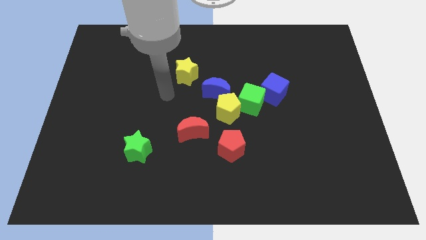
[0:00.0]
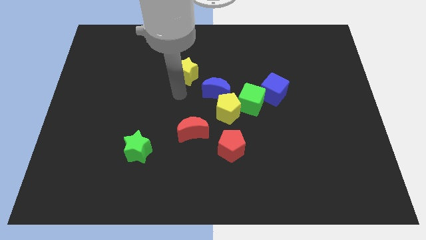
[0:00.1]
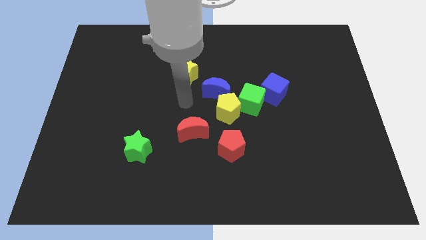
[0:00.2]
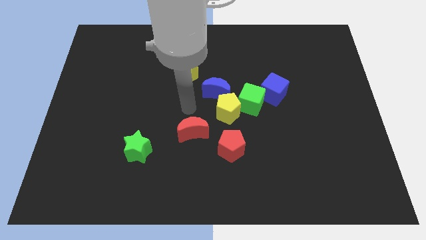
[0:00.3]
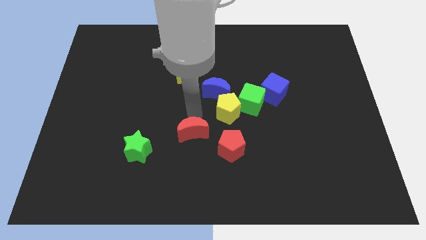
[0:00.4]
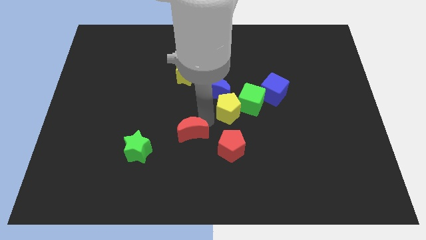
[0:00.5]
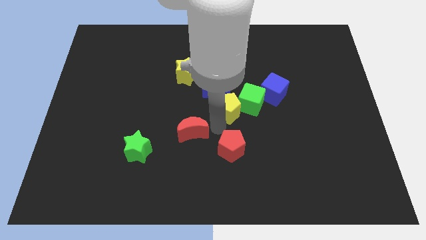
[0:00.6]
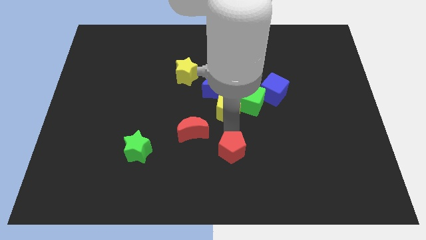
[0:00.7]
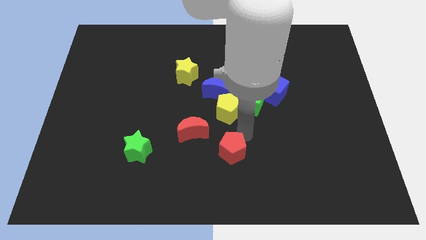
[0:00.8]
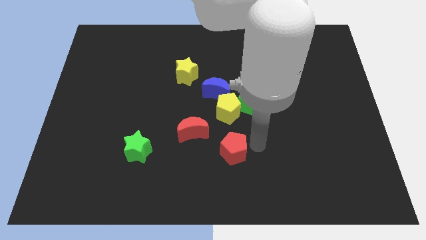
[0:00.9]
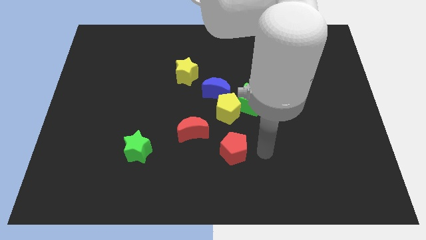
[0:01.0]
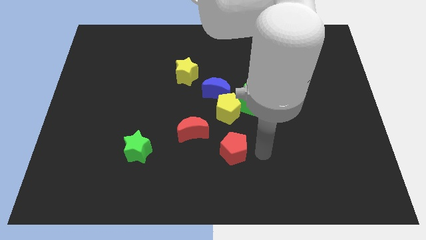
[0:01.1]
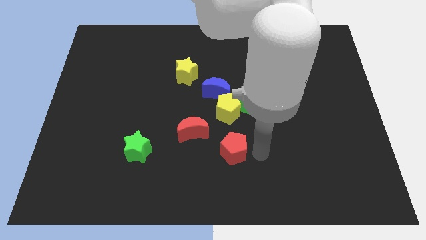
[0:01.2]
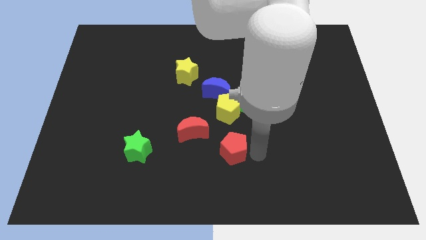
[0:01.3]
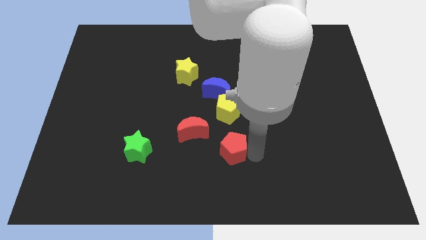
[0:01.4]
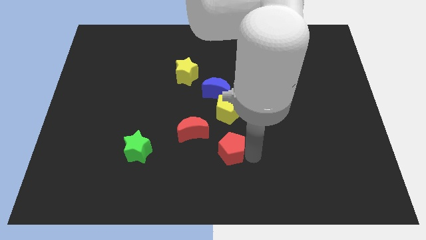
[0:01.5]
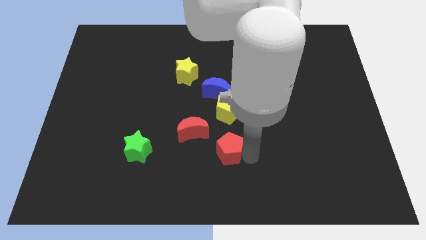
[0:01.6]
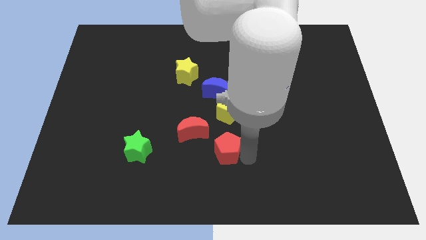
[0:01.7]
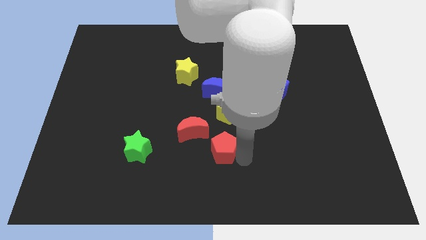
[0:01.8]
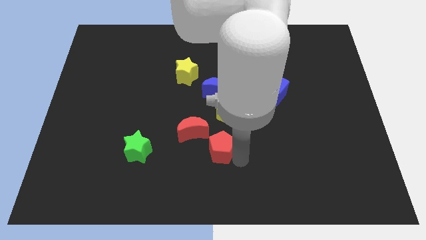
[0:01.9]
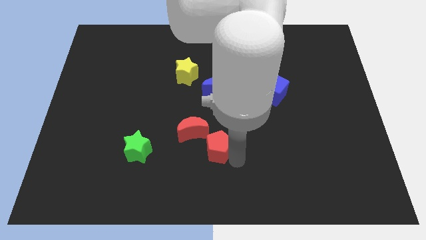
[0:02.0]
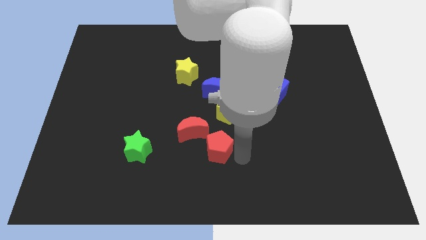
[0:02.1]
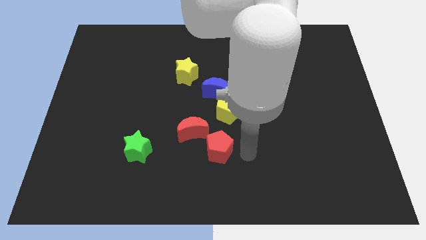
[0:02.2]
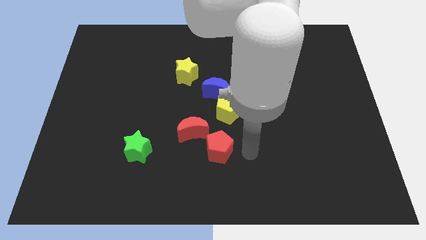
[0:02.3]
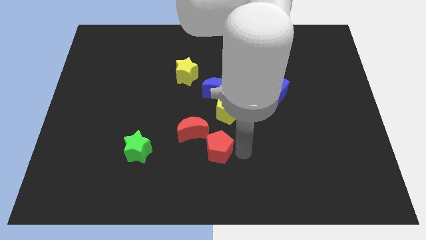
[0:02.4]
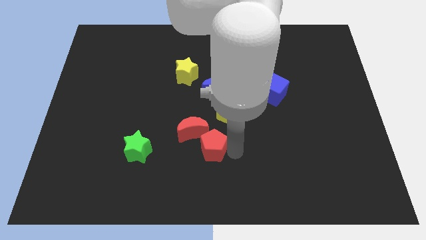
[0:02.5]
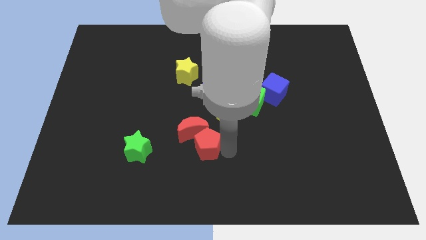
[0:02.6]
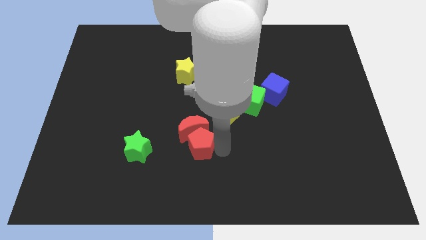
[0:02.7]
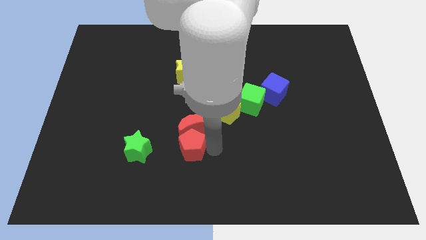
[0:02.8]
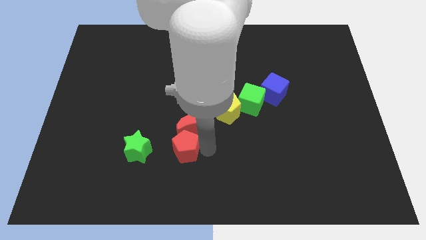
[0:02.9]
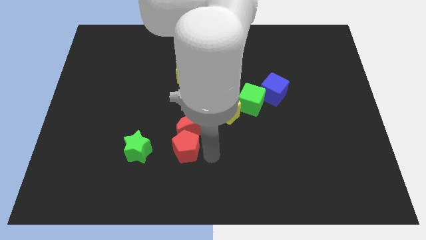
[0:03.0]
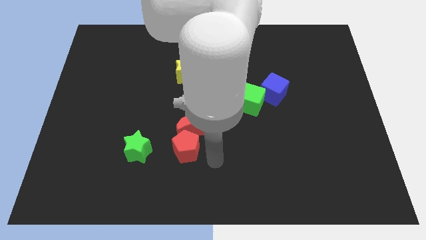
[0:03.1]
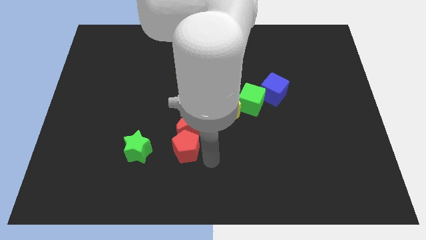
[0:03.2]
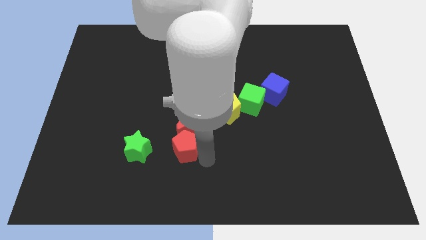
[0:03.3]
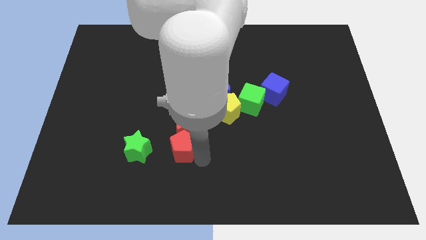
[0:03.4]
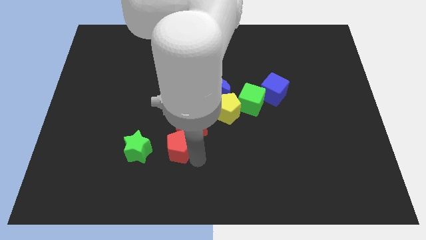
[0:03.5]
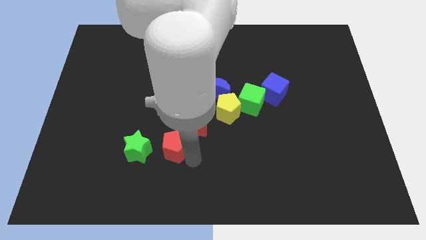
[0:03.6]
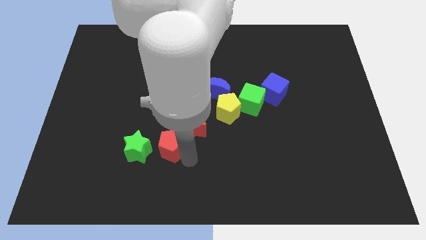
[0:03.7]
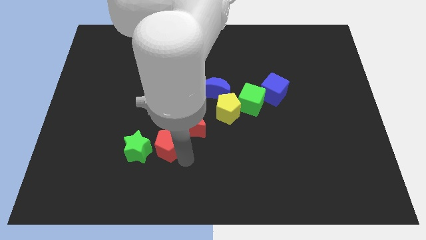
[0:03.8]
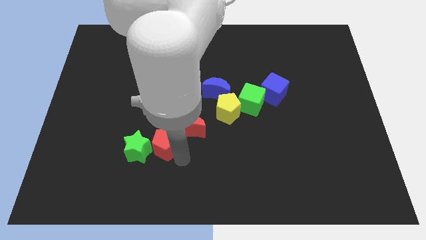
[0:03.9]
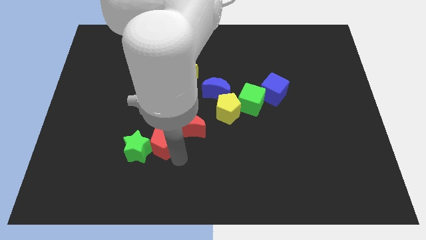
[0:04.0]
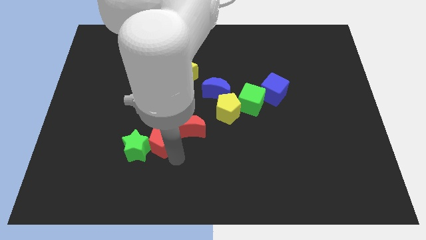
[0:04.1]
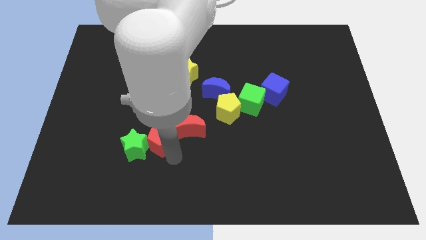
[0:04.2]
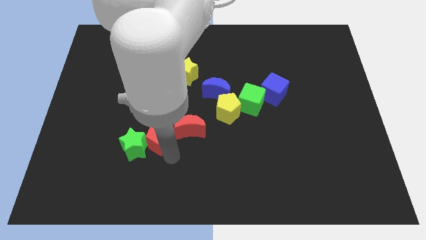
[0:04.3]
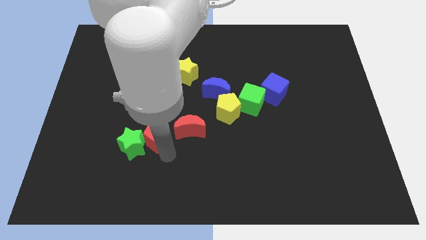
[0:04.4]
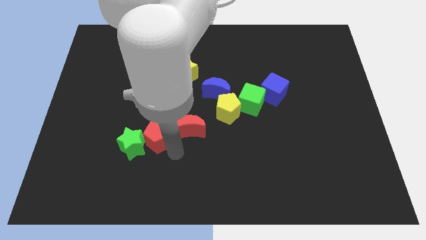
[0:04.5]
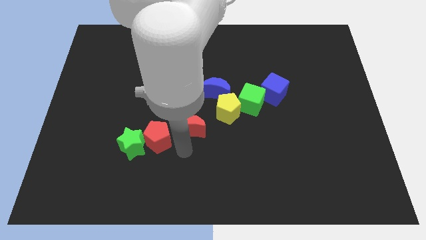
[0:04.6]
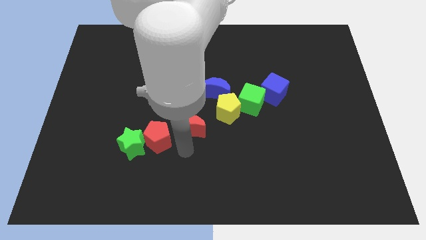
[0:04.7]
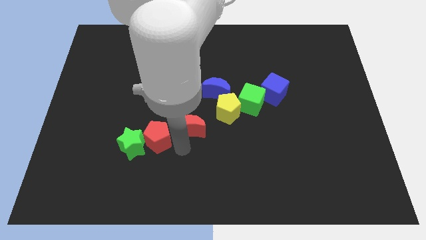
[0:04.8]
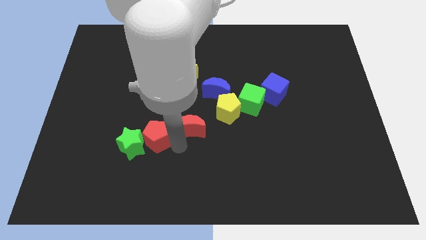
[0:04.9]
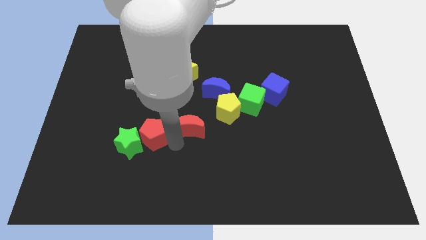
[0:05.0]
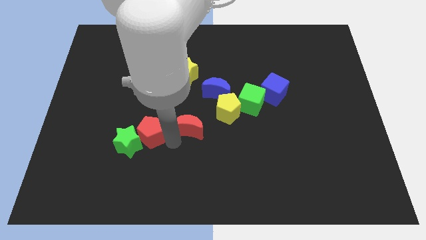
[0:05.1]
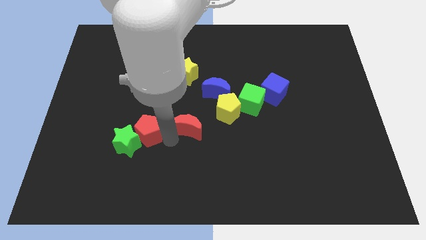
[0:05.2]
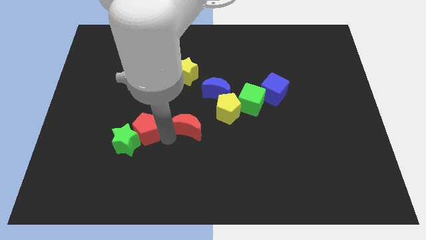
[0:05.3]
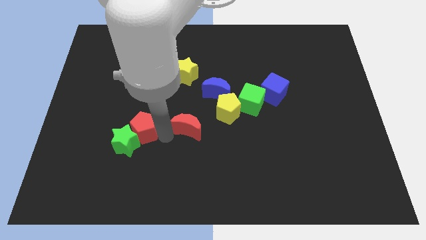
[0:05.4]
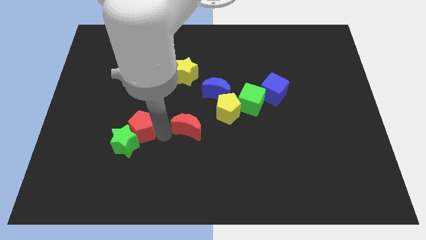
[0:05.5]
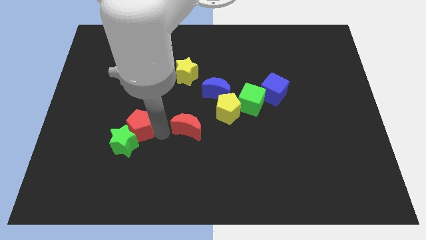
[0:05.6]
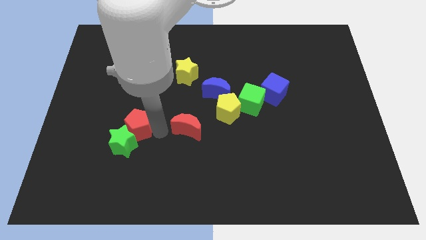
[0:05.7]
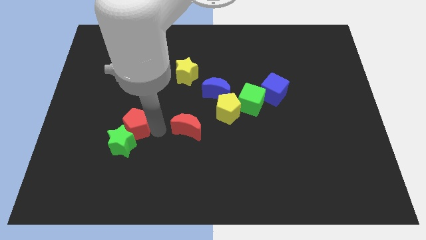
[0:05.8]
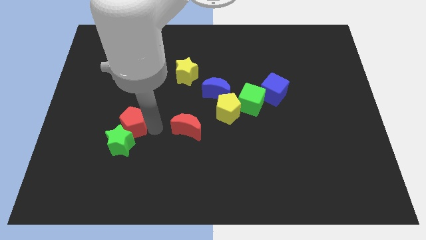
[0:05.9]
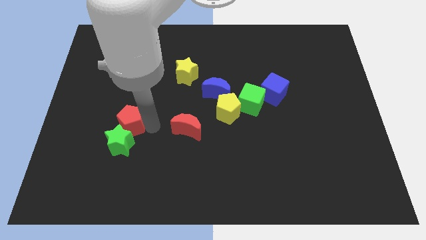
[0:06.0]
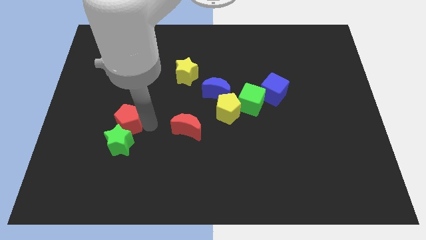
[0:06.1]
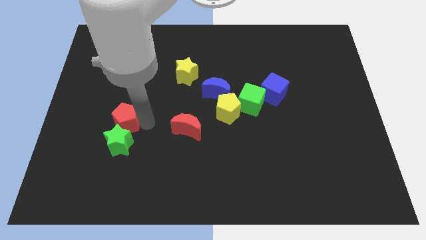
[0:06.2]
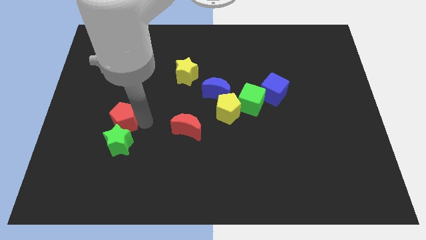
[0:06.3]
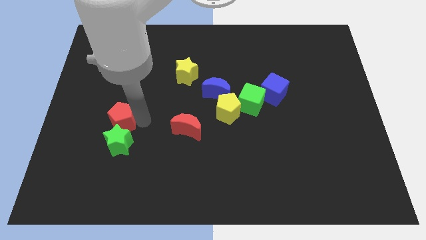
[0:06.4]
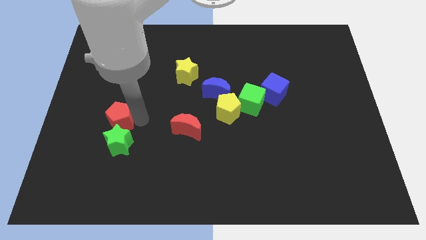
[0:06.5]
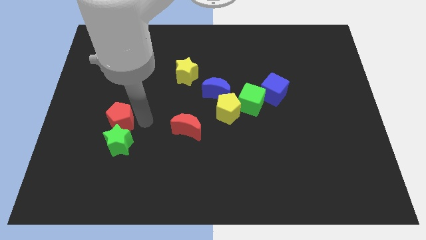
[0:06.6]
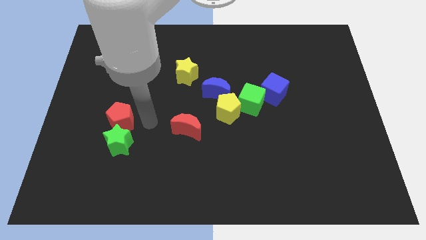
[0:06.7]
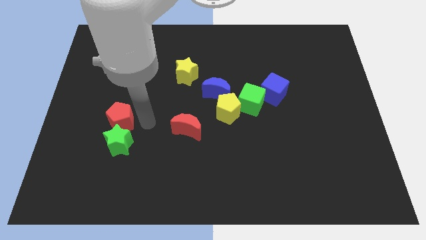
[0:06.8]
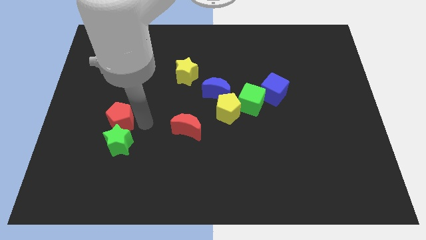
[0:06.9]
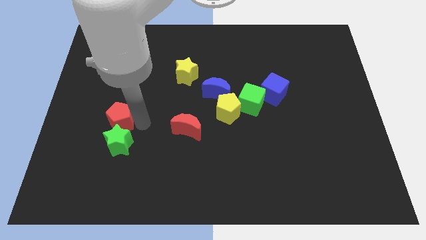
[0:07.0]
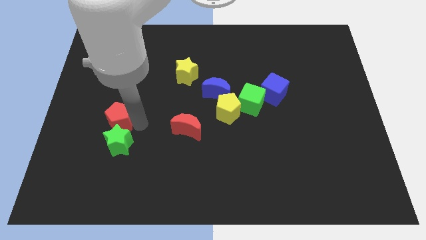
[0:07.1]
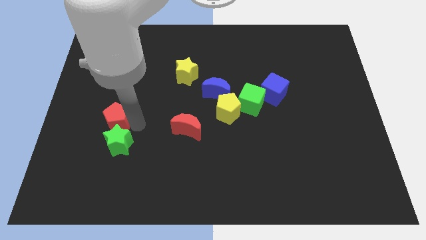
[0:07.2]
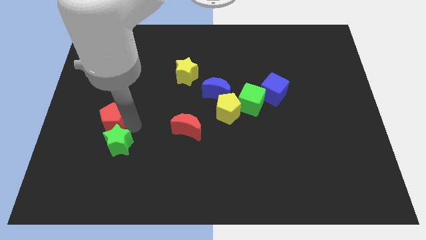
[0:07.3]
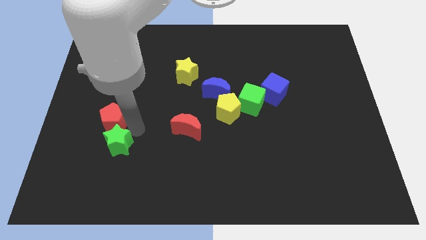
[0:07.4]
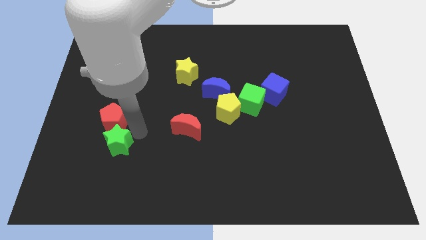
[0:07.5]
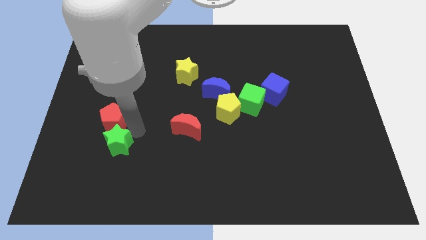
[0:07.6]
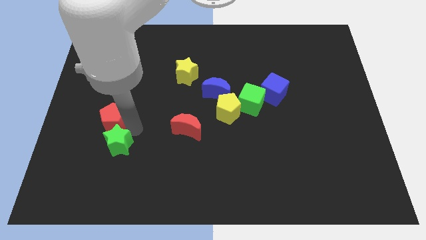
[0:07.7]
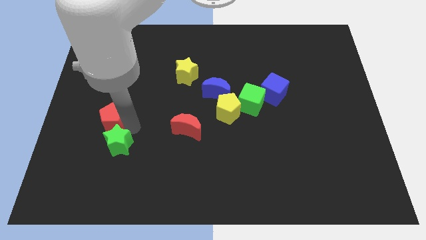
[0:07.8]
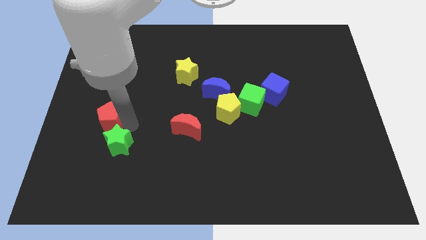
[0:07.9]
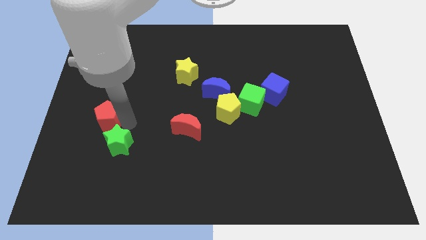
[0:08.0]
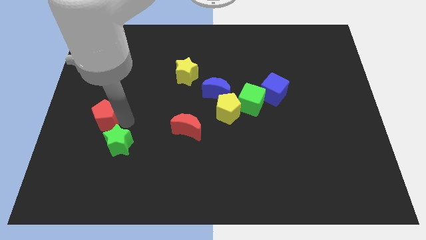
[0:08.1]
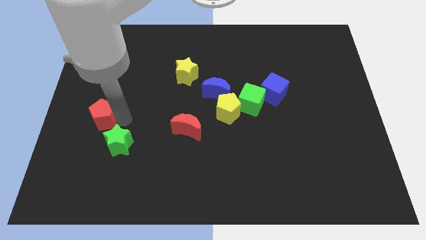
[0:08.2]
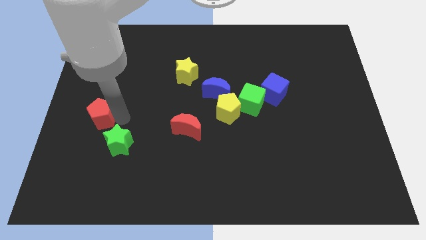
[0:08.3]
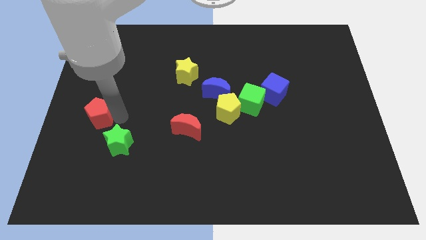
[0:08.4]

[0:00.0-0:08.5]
slide the red pentagon to the center left
